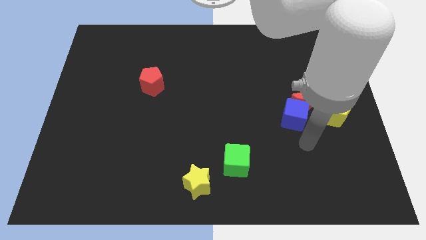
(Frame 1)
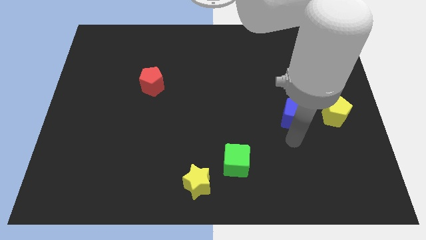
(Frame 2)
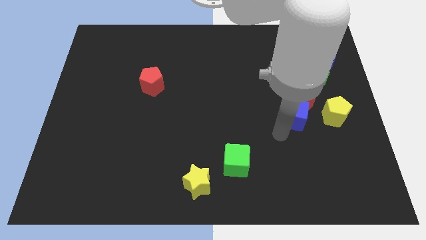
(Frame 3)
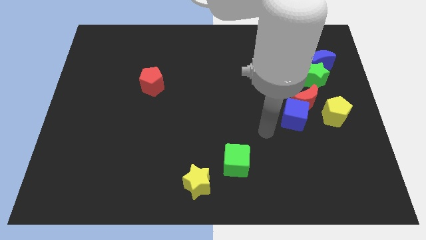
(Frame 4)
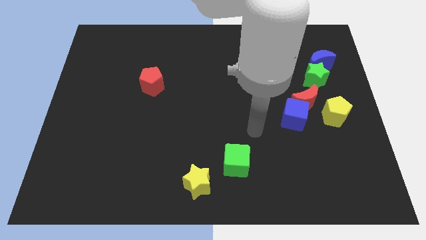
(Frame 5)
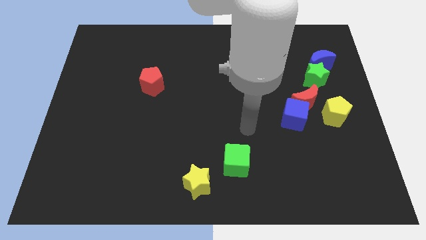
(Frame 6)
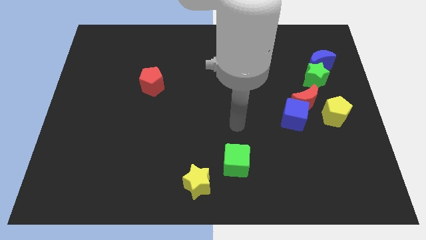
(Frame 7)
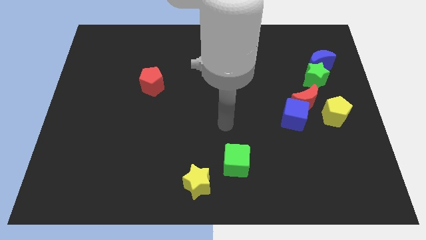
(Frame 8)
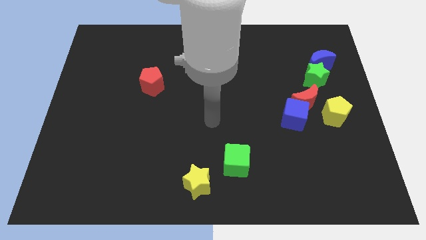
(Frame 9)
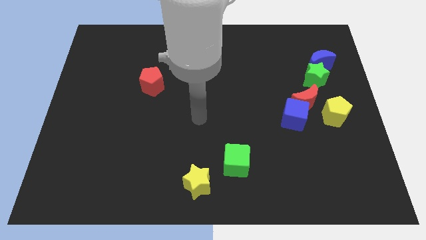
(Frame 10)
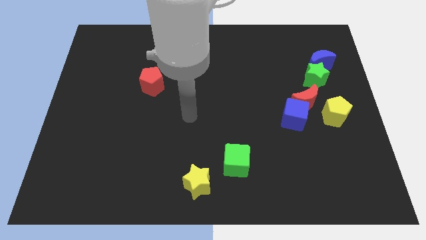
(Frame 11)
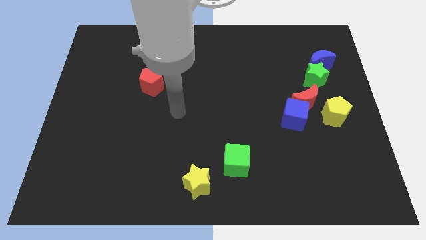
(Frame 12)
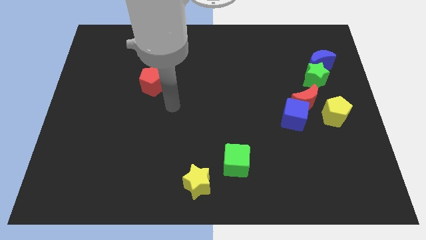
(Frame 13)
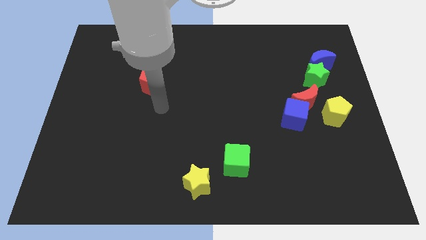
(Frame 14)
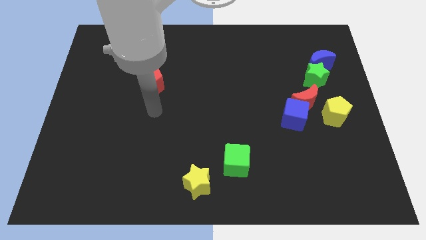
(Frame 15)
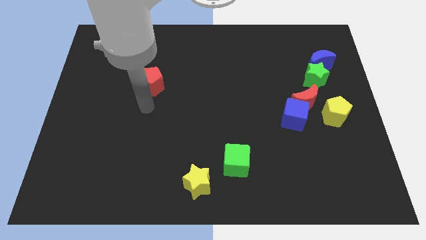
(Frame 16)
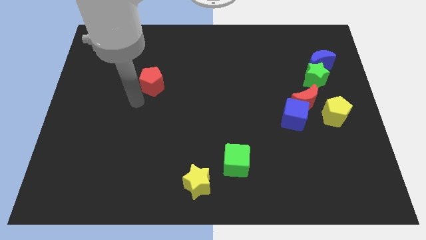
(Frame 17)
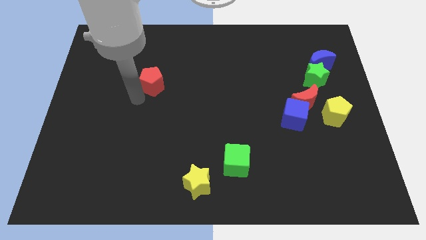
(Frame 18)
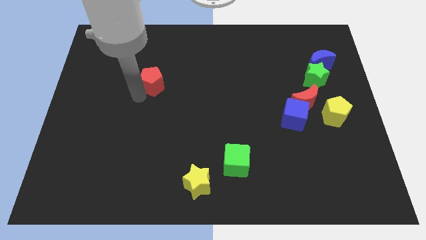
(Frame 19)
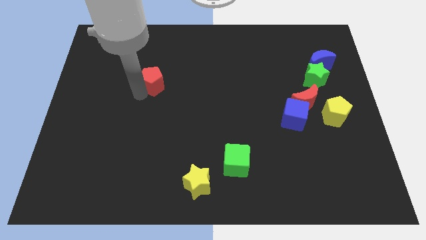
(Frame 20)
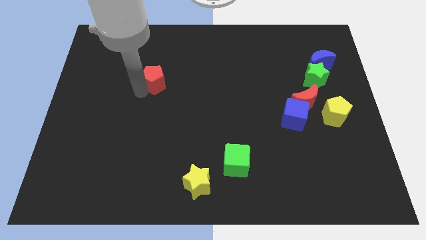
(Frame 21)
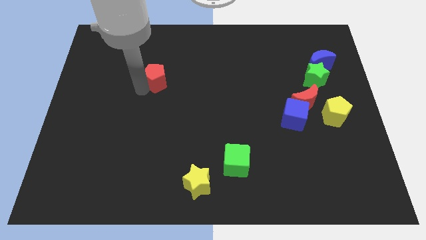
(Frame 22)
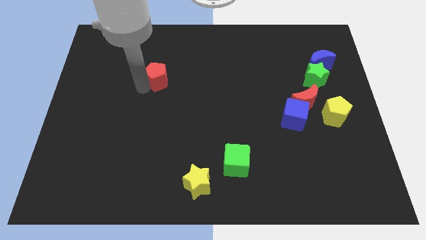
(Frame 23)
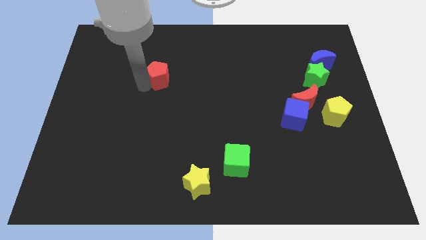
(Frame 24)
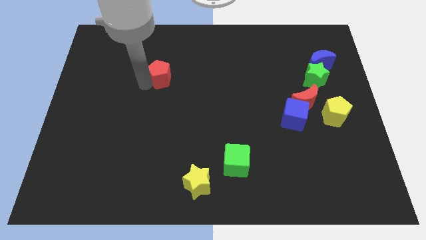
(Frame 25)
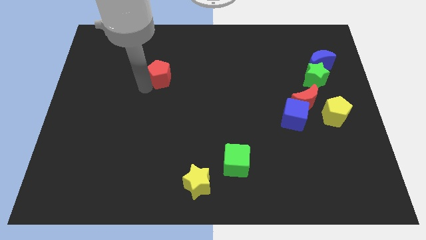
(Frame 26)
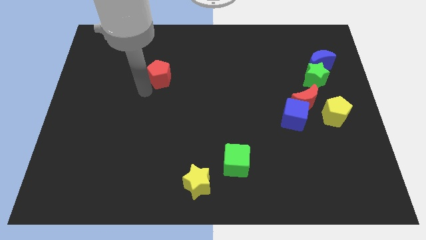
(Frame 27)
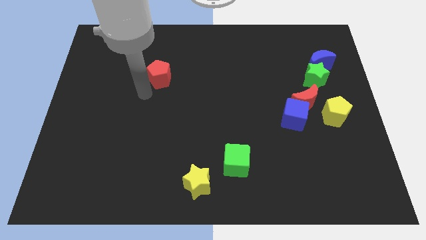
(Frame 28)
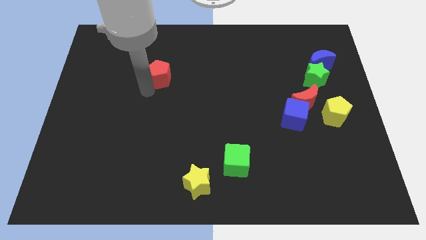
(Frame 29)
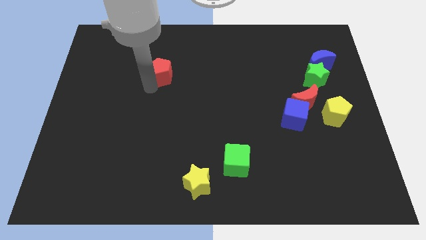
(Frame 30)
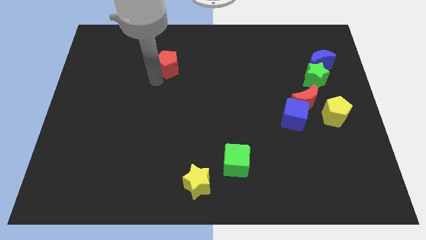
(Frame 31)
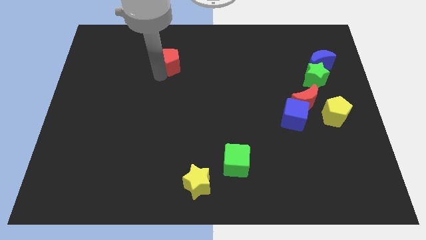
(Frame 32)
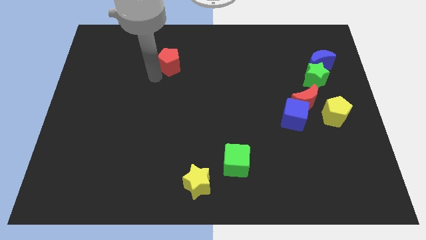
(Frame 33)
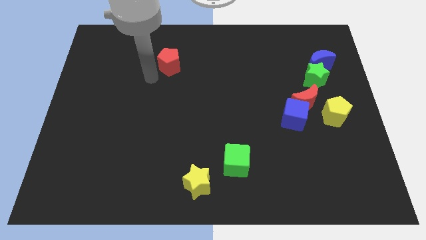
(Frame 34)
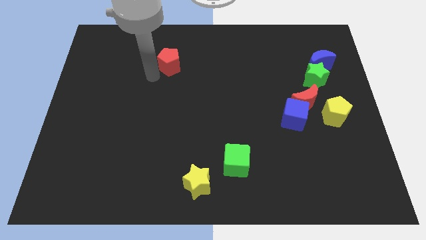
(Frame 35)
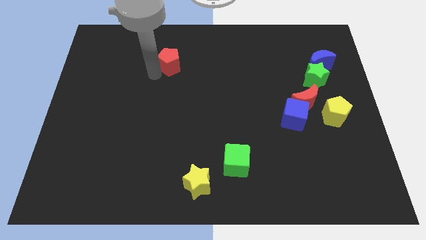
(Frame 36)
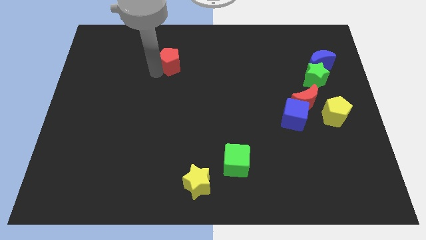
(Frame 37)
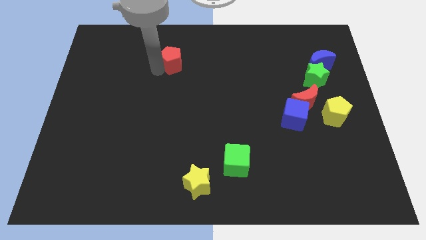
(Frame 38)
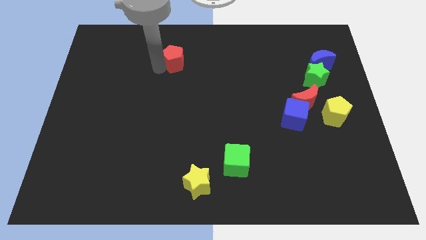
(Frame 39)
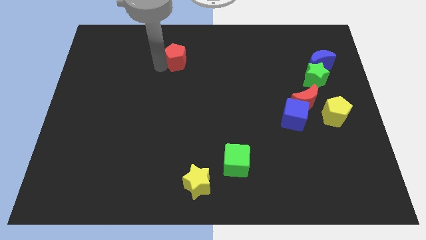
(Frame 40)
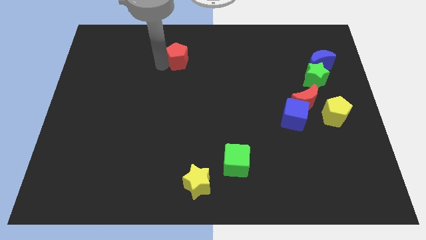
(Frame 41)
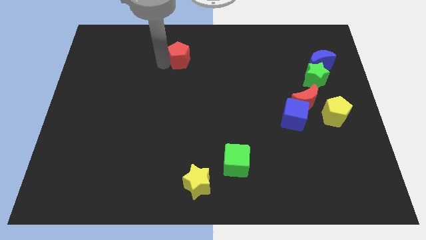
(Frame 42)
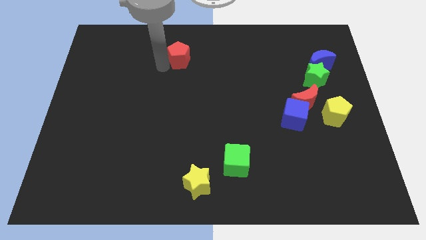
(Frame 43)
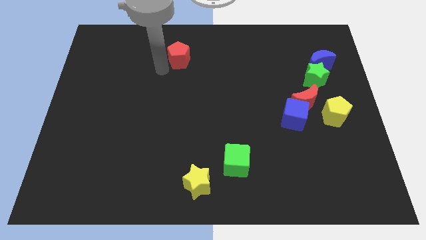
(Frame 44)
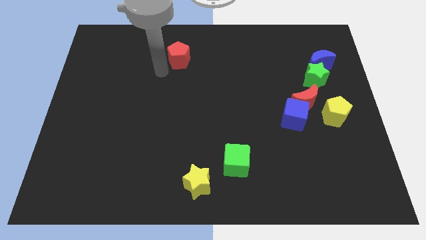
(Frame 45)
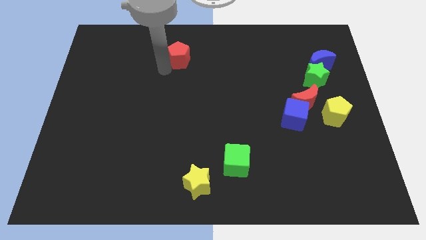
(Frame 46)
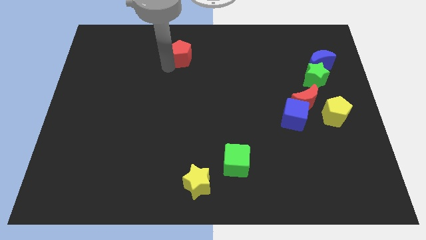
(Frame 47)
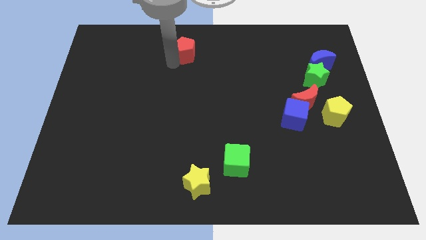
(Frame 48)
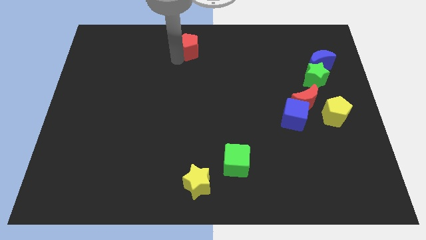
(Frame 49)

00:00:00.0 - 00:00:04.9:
put the red pentagon to the top side

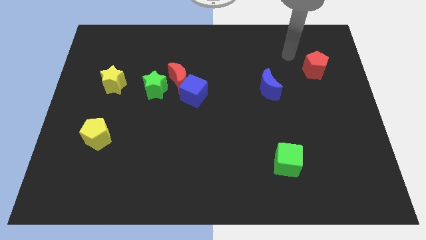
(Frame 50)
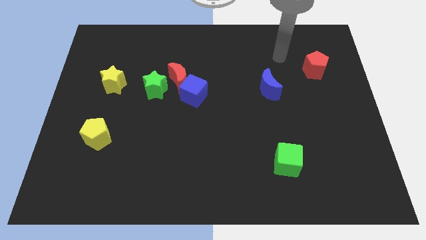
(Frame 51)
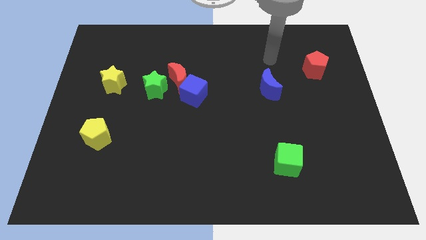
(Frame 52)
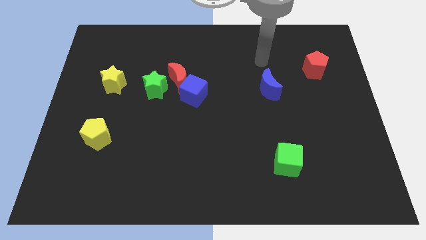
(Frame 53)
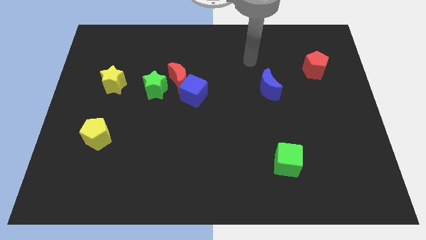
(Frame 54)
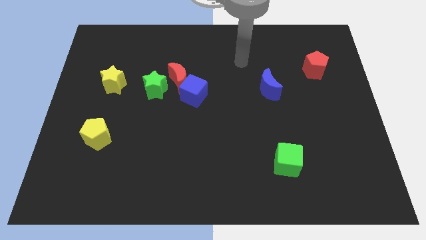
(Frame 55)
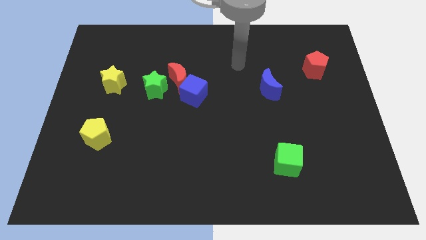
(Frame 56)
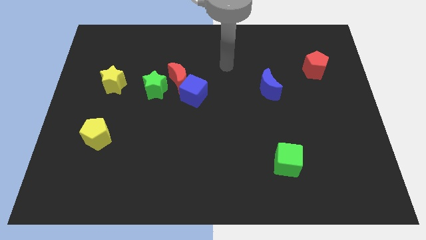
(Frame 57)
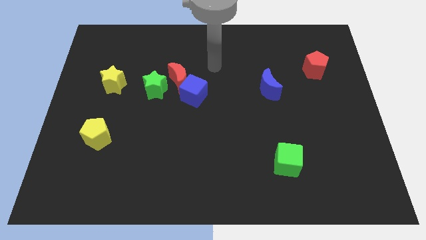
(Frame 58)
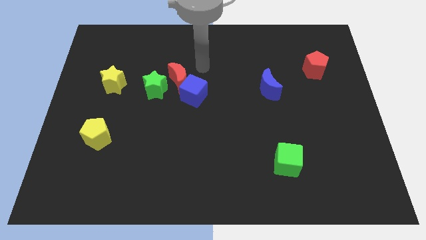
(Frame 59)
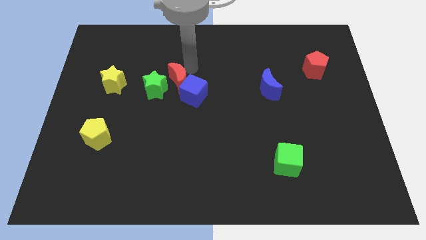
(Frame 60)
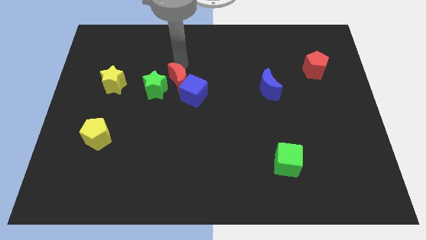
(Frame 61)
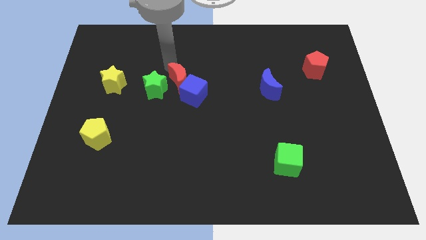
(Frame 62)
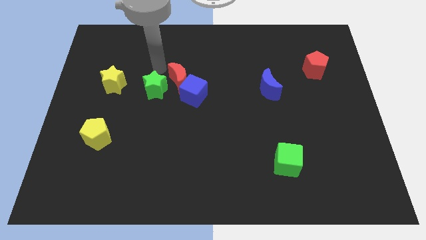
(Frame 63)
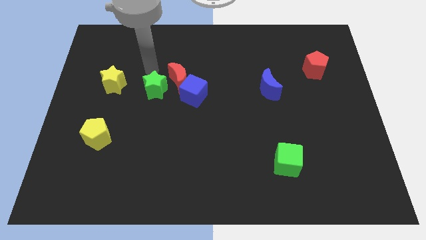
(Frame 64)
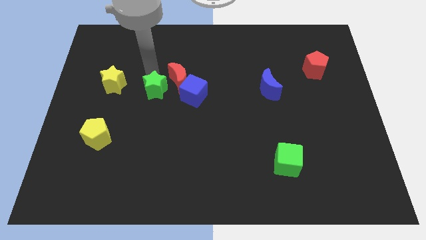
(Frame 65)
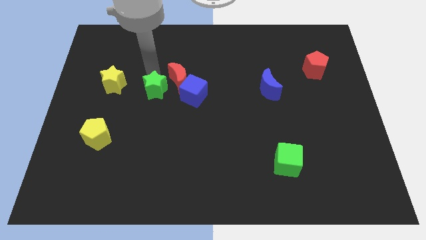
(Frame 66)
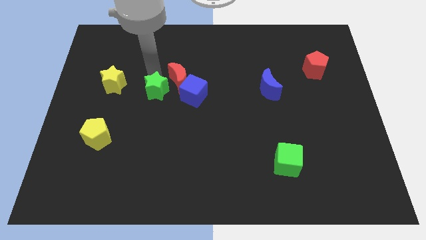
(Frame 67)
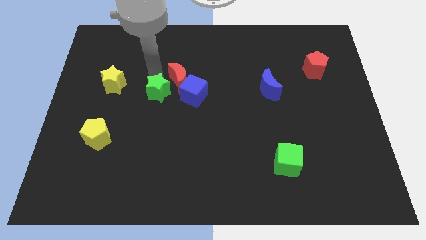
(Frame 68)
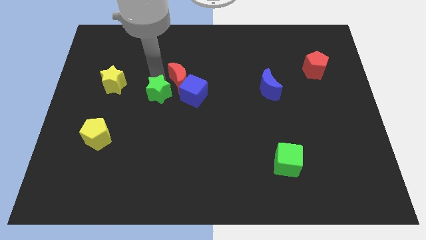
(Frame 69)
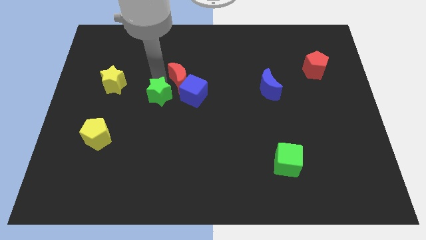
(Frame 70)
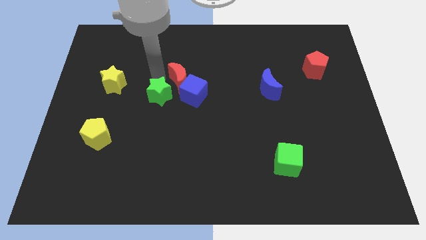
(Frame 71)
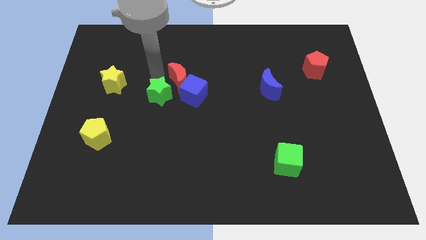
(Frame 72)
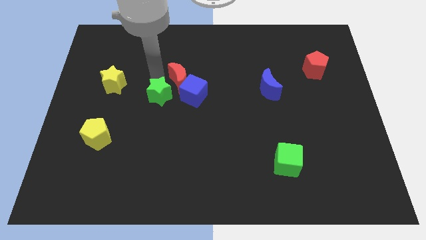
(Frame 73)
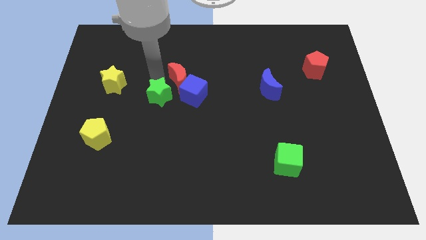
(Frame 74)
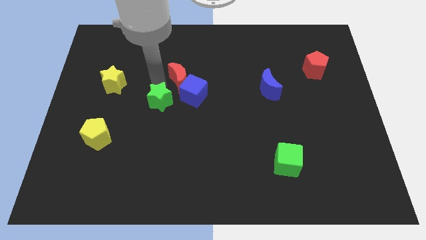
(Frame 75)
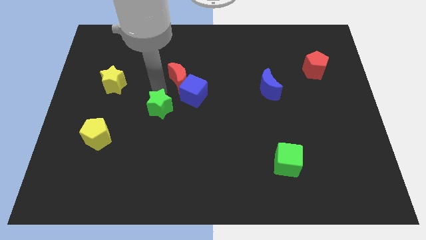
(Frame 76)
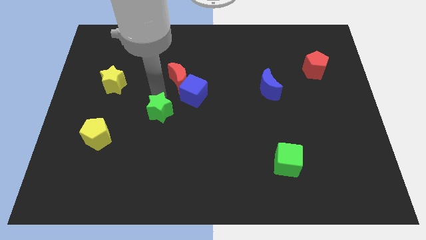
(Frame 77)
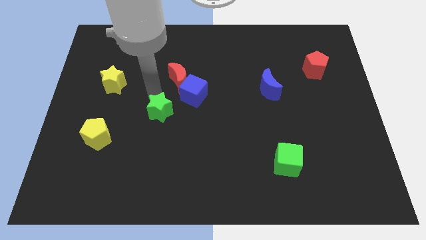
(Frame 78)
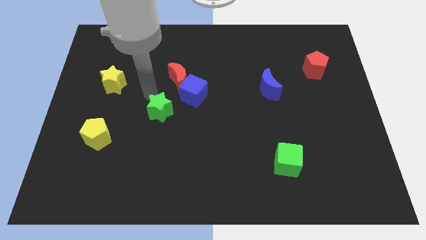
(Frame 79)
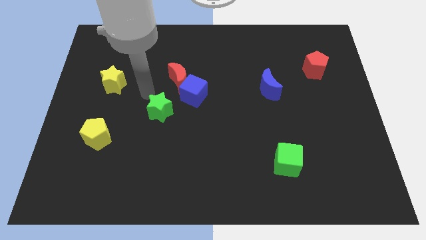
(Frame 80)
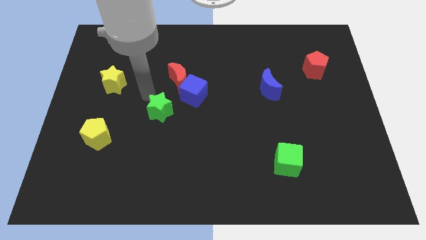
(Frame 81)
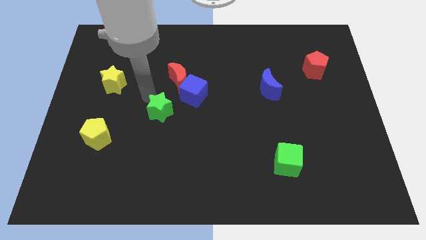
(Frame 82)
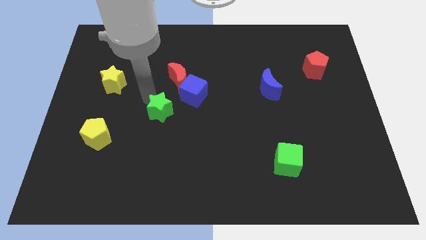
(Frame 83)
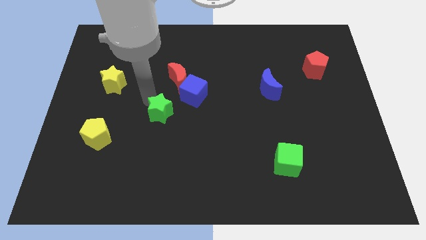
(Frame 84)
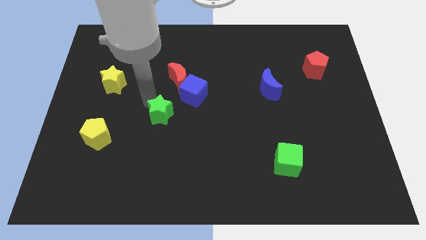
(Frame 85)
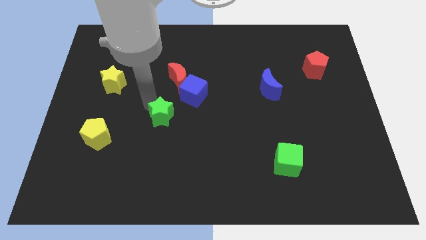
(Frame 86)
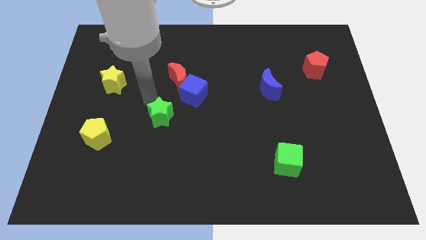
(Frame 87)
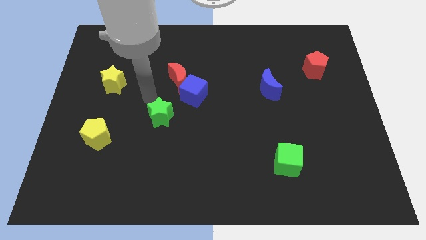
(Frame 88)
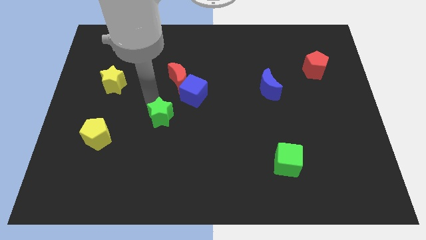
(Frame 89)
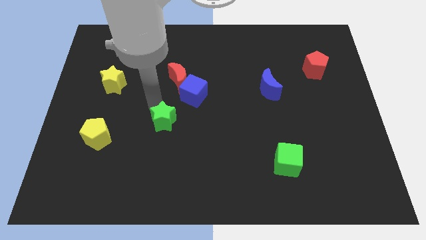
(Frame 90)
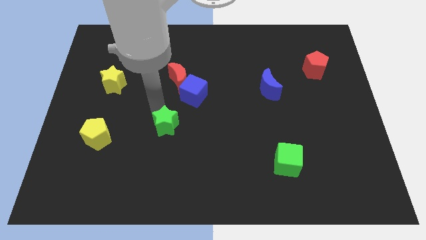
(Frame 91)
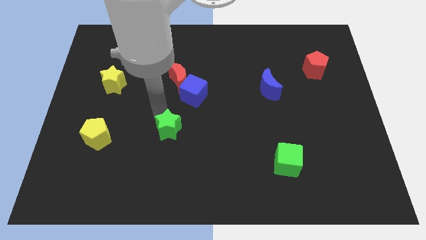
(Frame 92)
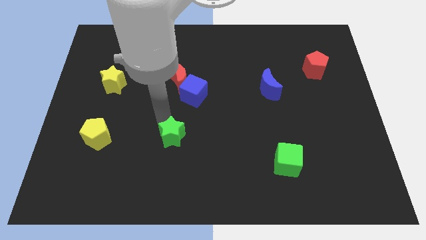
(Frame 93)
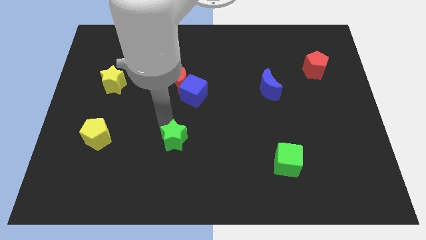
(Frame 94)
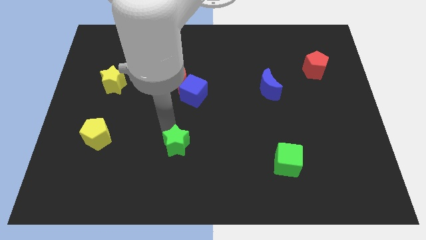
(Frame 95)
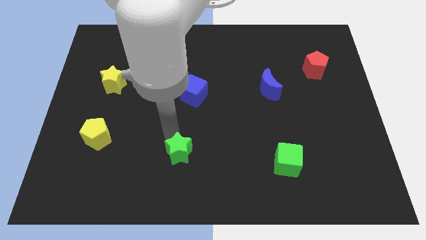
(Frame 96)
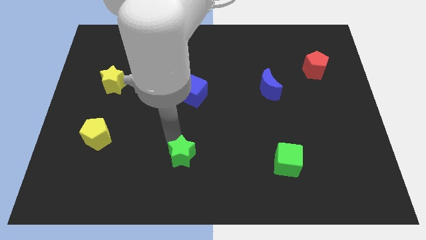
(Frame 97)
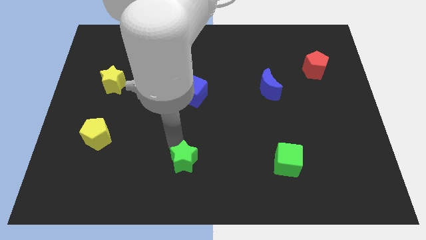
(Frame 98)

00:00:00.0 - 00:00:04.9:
push the green star to the bottom side
